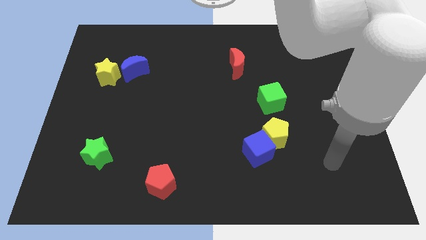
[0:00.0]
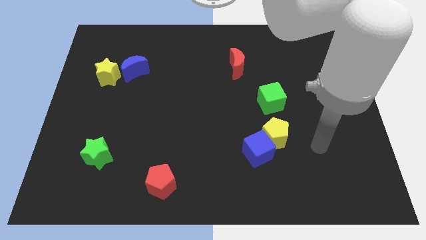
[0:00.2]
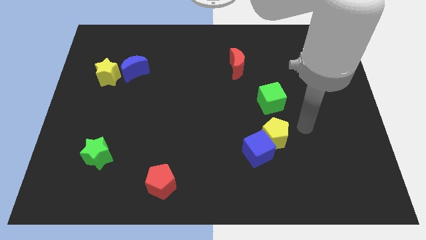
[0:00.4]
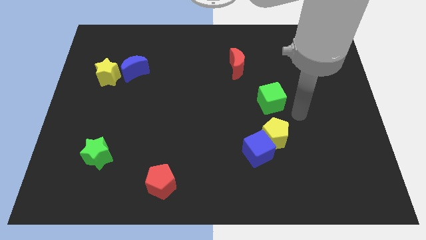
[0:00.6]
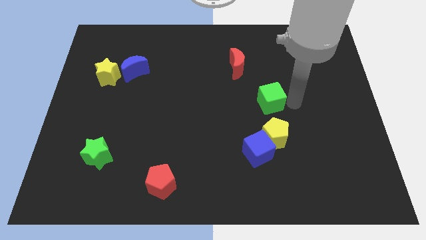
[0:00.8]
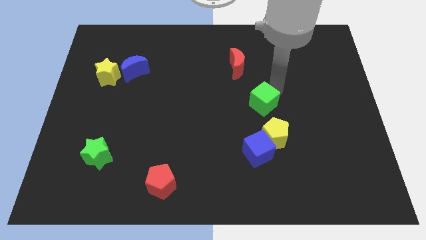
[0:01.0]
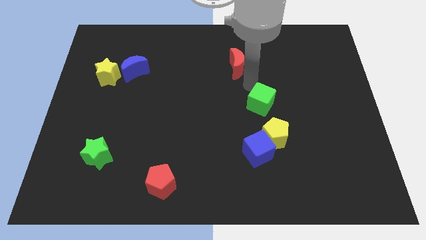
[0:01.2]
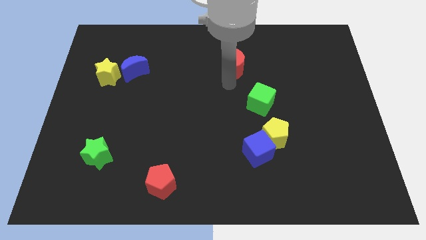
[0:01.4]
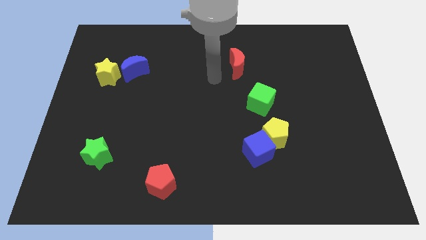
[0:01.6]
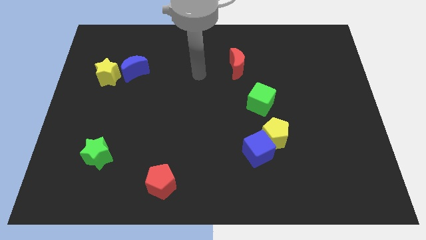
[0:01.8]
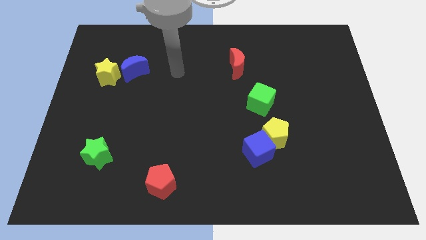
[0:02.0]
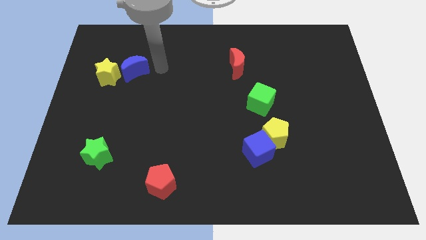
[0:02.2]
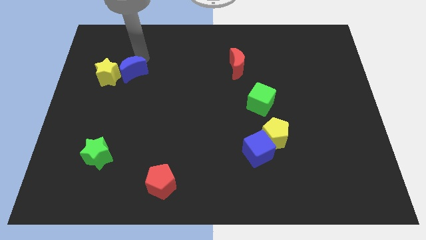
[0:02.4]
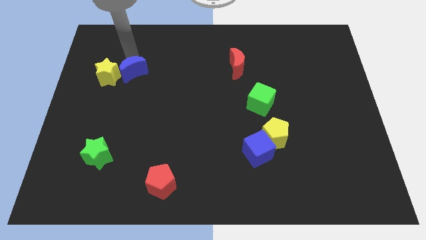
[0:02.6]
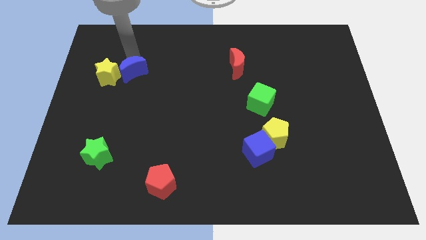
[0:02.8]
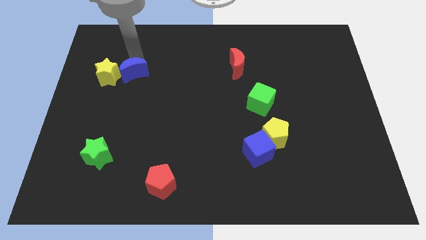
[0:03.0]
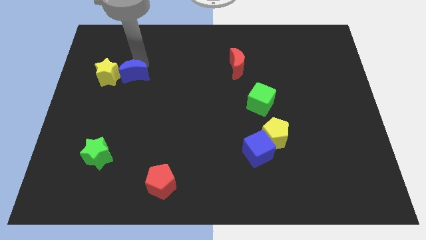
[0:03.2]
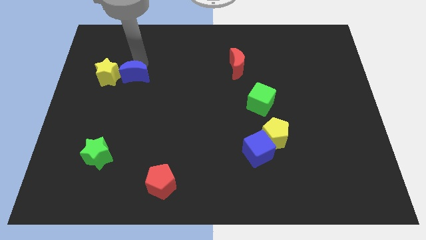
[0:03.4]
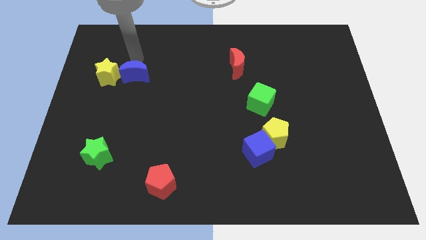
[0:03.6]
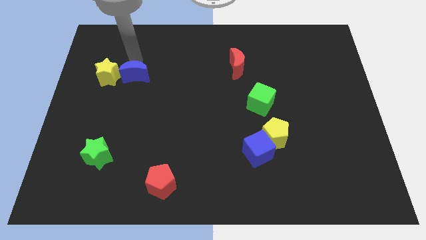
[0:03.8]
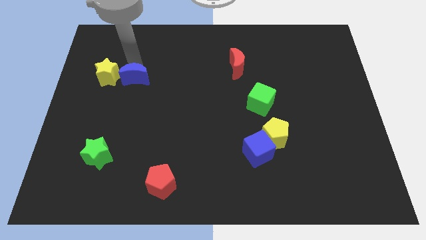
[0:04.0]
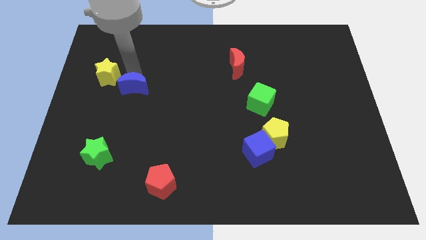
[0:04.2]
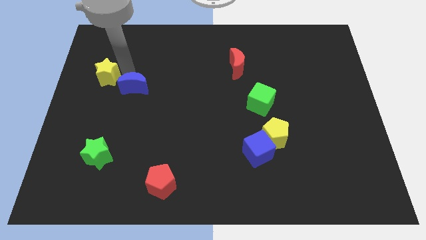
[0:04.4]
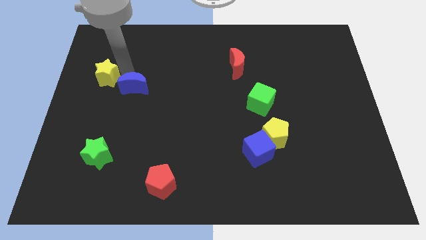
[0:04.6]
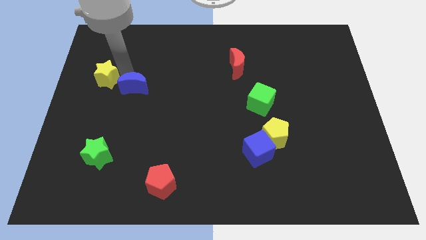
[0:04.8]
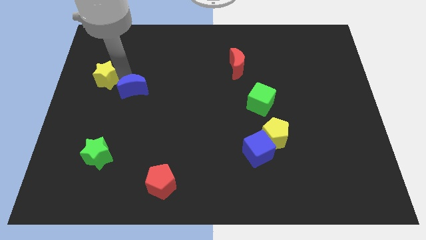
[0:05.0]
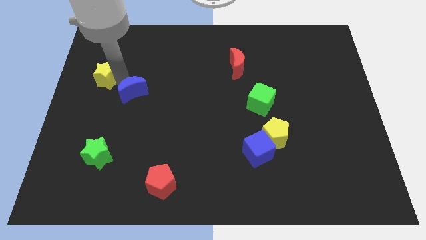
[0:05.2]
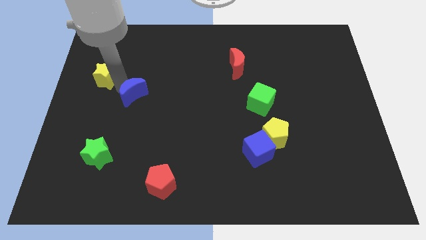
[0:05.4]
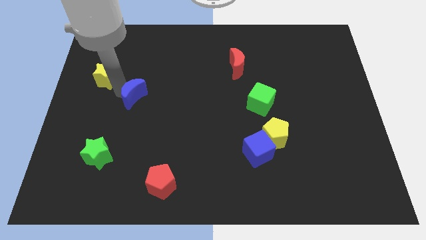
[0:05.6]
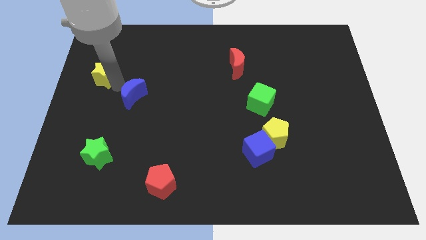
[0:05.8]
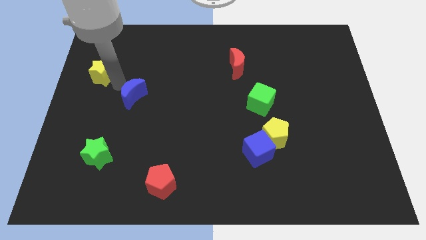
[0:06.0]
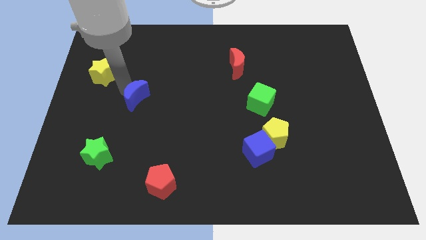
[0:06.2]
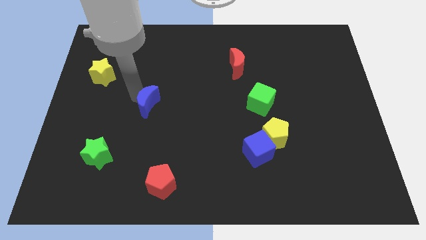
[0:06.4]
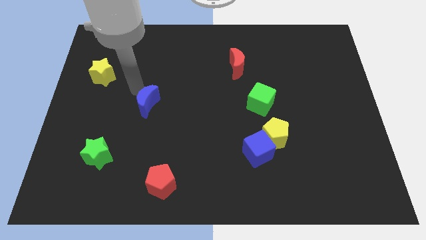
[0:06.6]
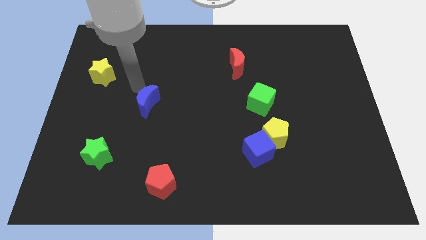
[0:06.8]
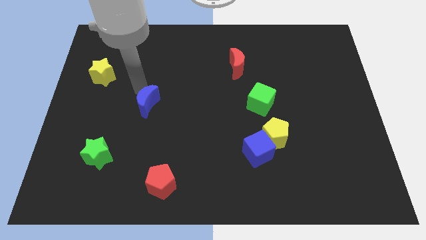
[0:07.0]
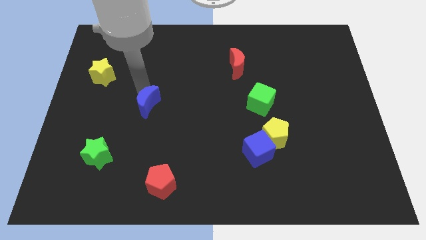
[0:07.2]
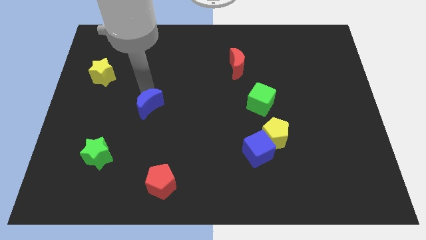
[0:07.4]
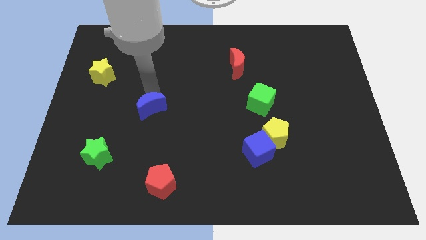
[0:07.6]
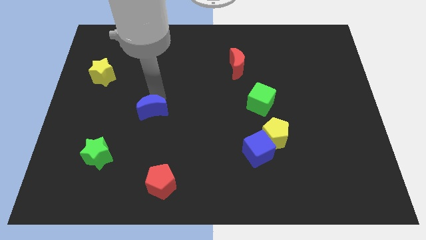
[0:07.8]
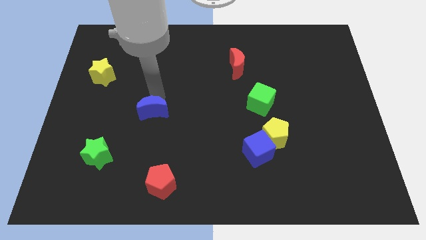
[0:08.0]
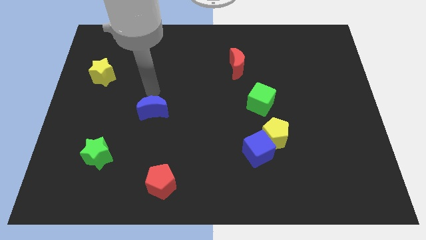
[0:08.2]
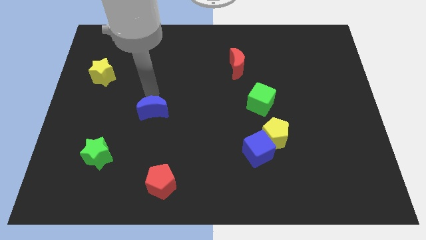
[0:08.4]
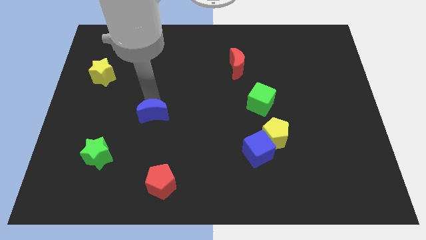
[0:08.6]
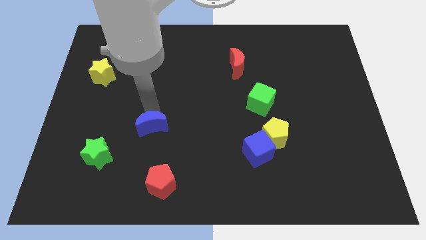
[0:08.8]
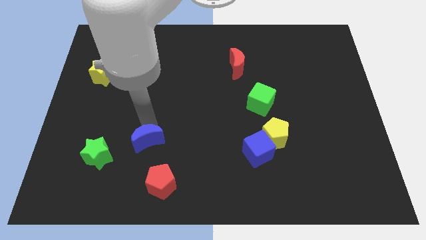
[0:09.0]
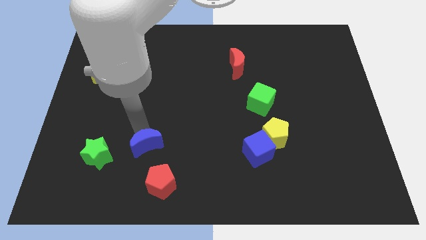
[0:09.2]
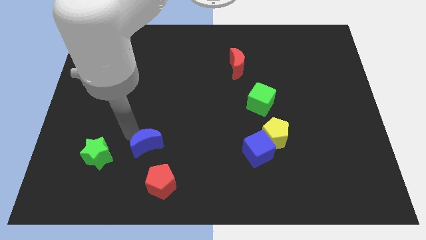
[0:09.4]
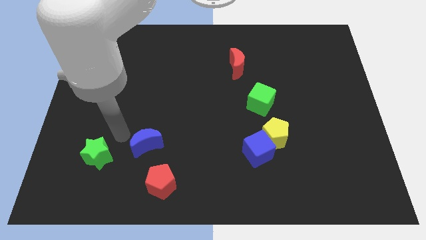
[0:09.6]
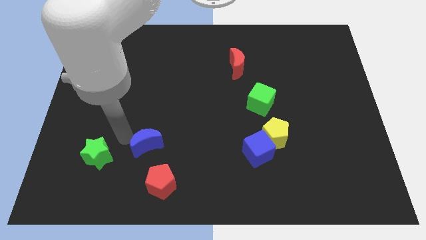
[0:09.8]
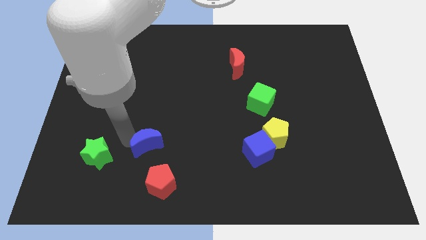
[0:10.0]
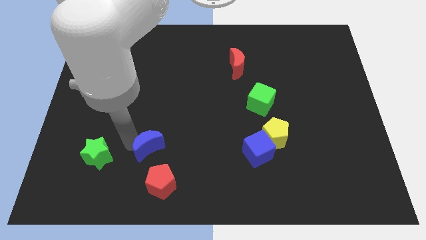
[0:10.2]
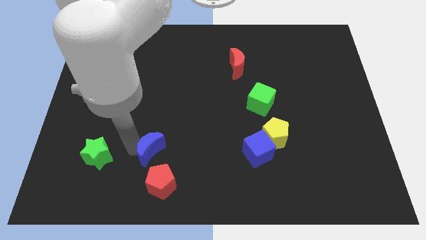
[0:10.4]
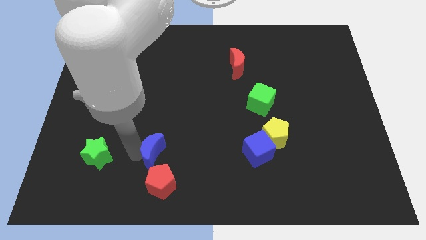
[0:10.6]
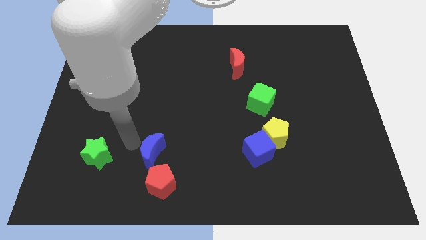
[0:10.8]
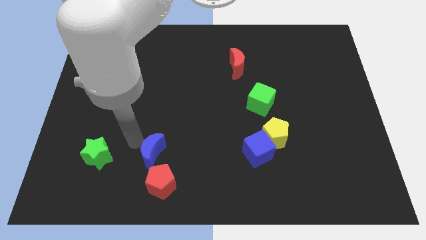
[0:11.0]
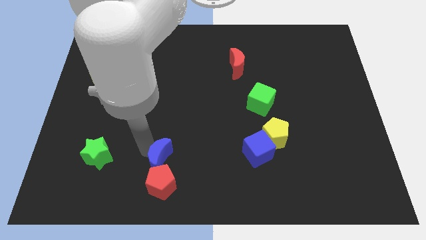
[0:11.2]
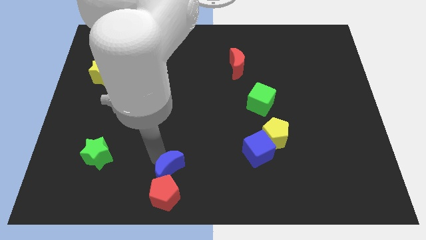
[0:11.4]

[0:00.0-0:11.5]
move the blue moon to the bottom side
